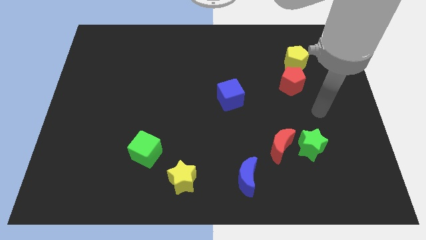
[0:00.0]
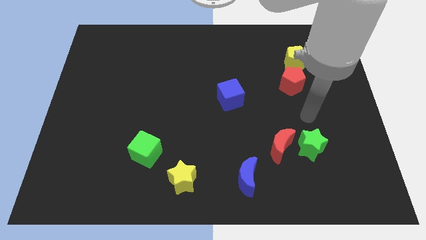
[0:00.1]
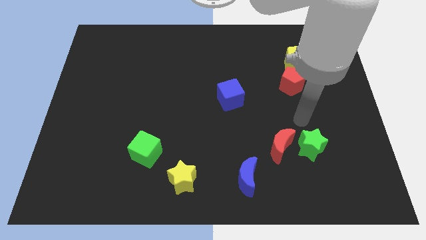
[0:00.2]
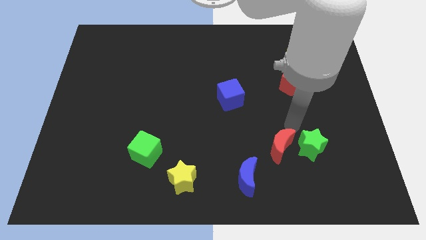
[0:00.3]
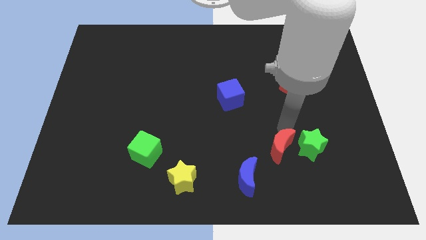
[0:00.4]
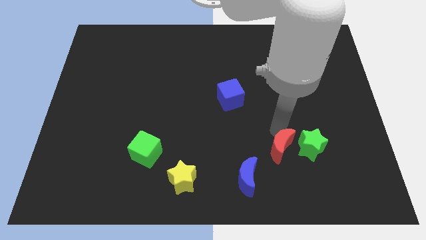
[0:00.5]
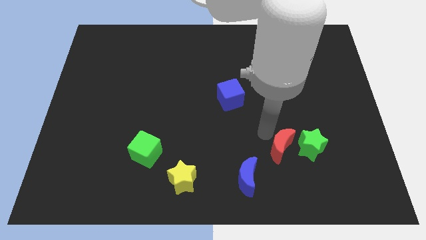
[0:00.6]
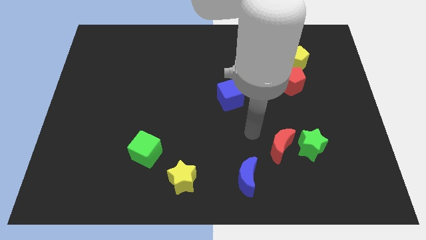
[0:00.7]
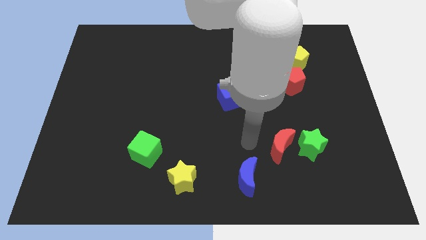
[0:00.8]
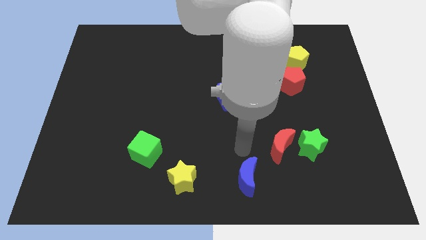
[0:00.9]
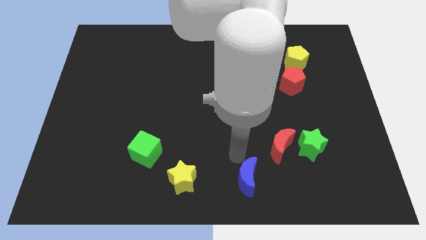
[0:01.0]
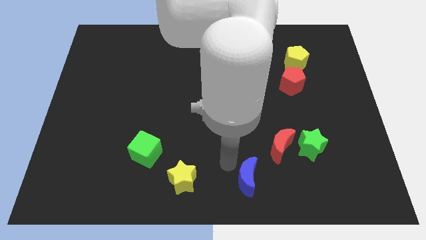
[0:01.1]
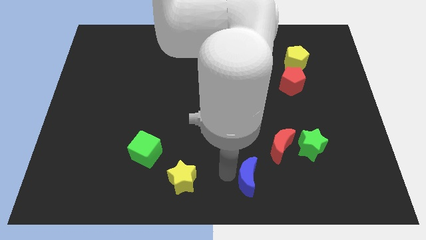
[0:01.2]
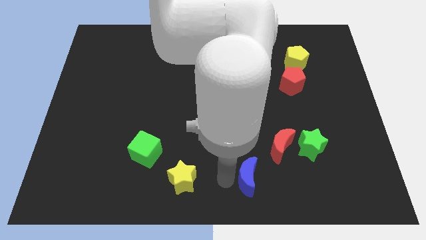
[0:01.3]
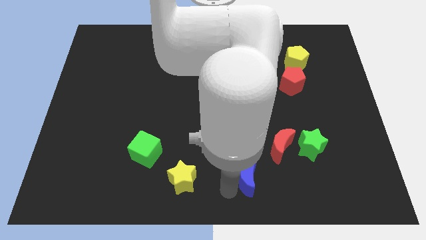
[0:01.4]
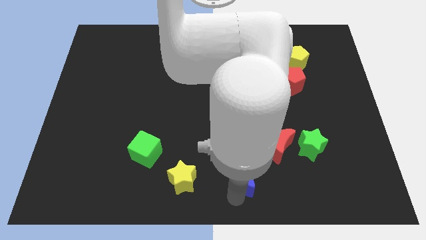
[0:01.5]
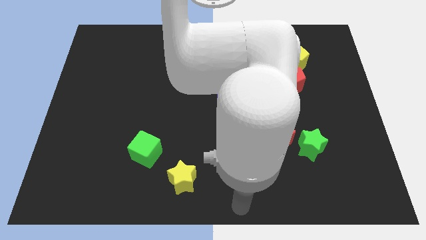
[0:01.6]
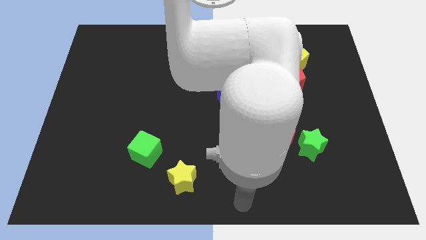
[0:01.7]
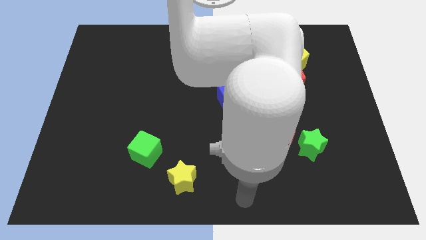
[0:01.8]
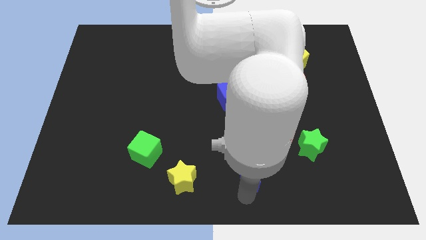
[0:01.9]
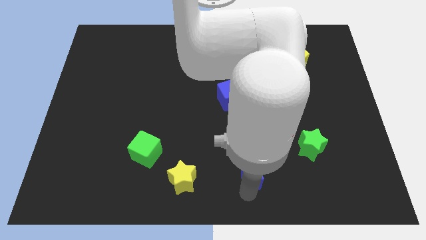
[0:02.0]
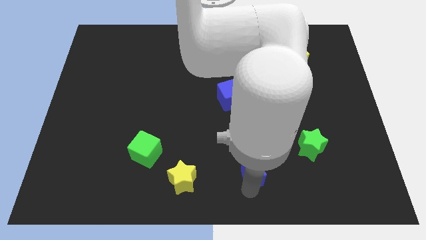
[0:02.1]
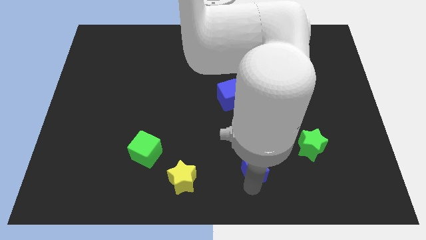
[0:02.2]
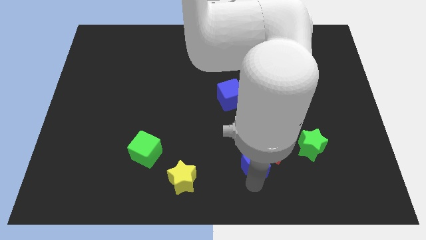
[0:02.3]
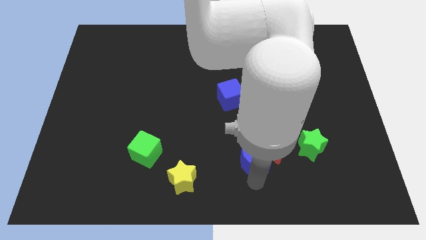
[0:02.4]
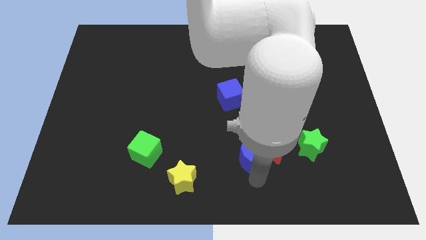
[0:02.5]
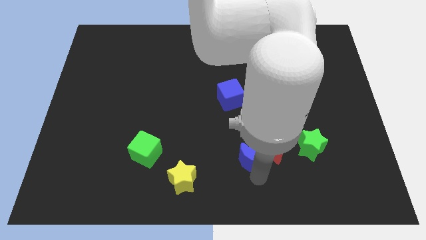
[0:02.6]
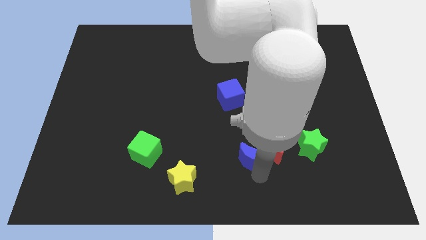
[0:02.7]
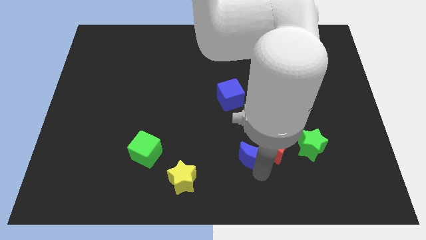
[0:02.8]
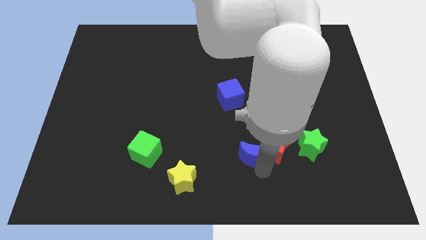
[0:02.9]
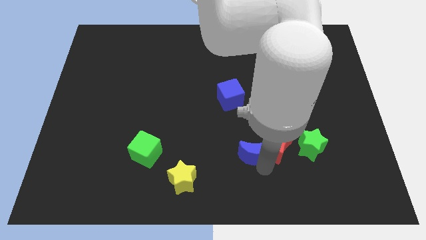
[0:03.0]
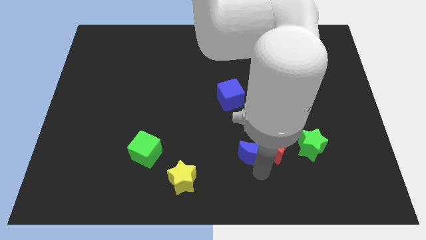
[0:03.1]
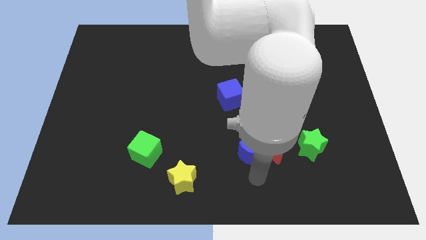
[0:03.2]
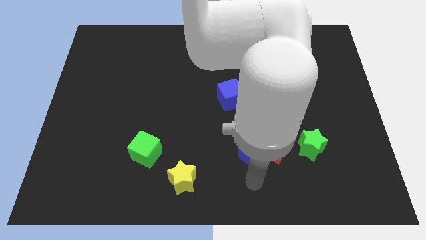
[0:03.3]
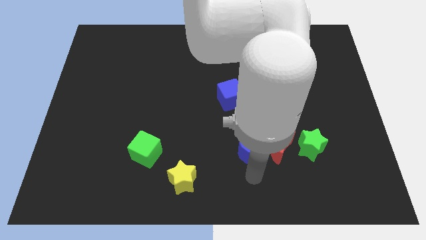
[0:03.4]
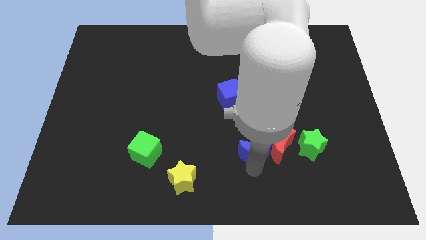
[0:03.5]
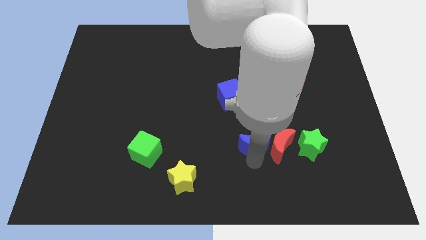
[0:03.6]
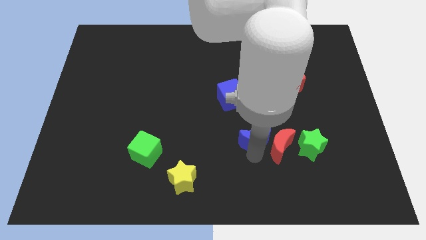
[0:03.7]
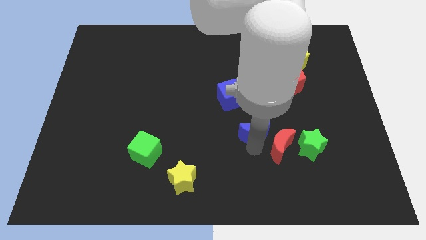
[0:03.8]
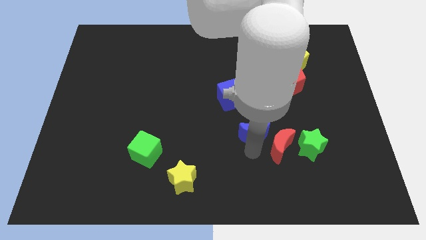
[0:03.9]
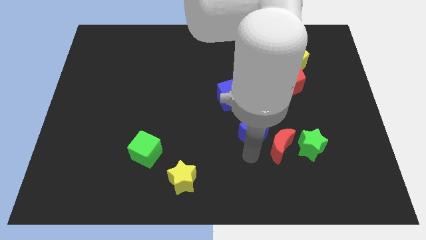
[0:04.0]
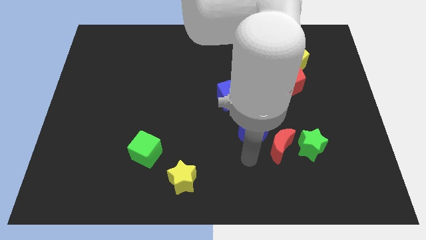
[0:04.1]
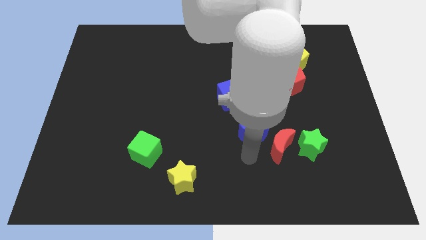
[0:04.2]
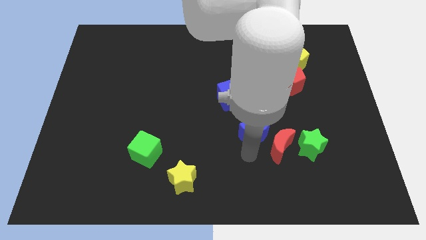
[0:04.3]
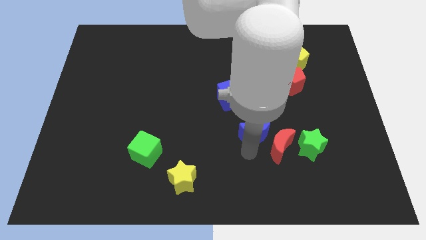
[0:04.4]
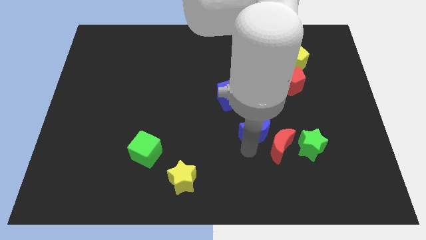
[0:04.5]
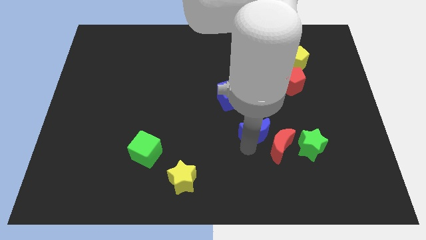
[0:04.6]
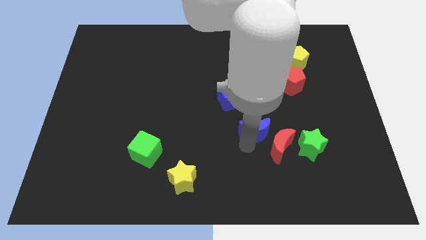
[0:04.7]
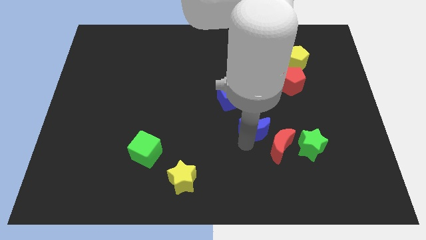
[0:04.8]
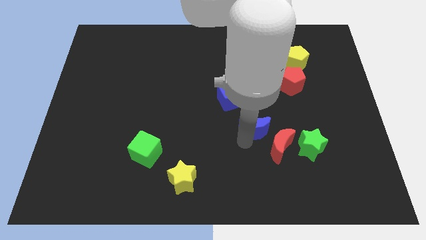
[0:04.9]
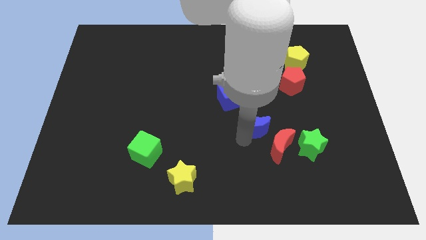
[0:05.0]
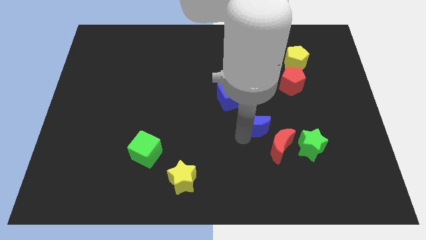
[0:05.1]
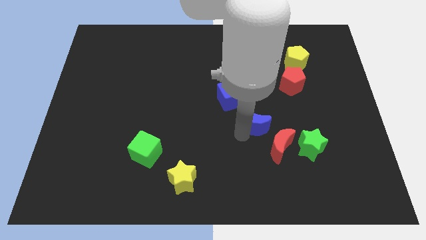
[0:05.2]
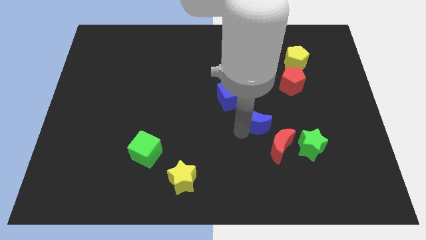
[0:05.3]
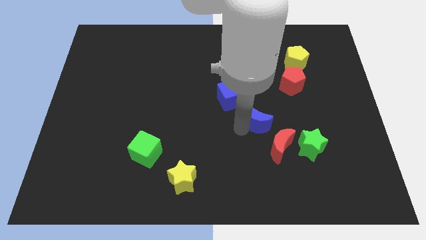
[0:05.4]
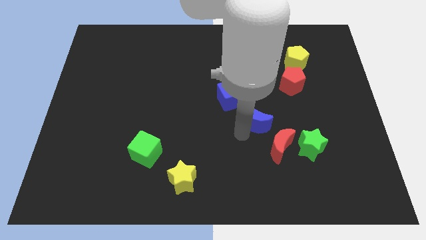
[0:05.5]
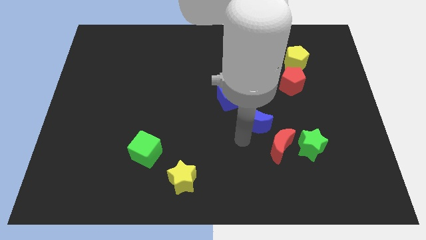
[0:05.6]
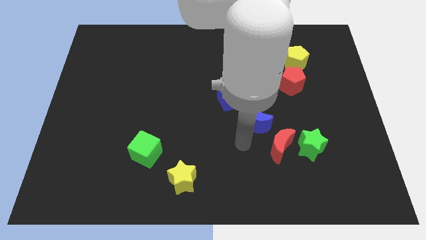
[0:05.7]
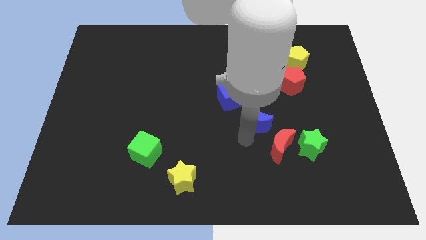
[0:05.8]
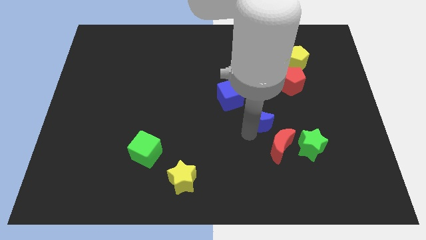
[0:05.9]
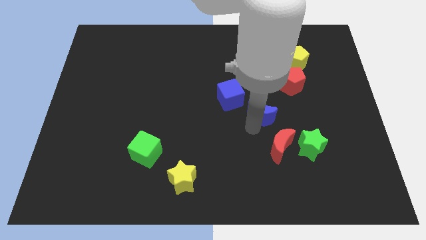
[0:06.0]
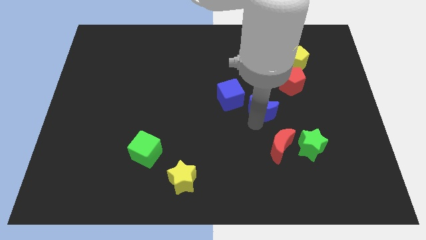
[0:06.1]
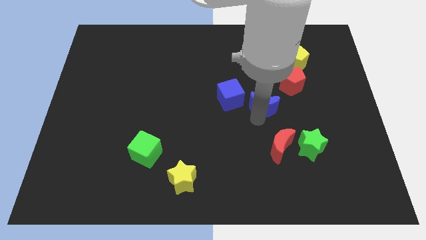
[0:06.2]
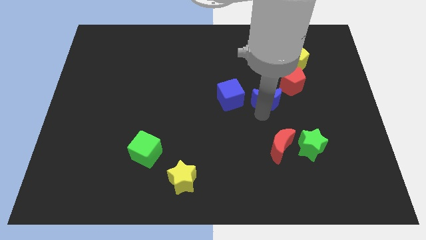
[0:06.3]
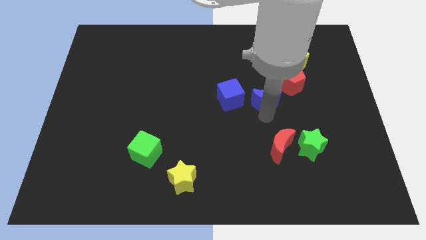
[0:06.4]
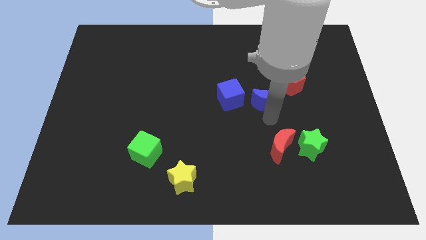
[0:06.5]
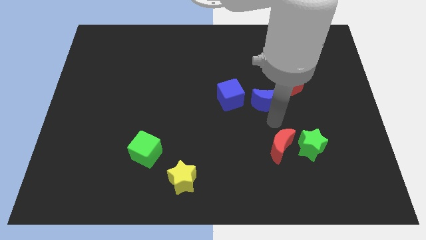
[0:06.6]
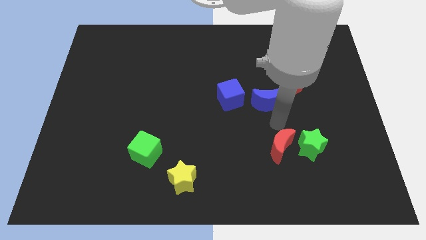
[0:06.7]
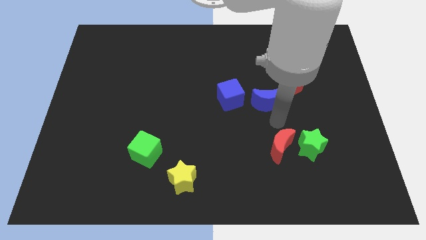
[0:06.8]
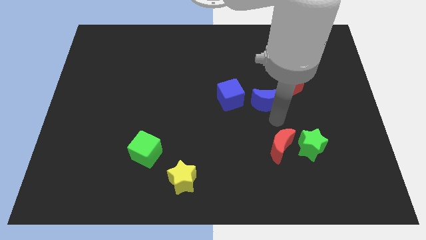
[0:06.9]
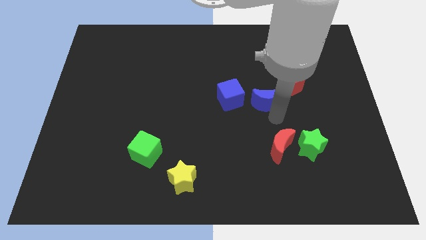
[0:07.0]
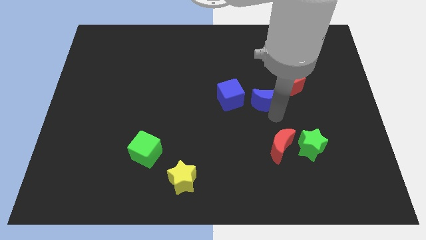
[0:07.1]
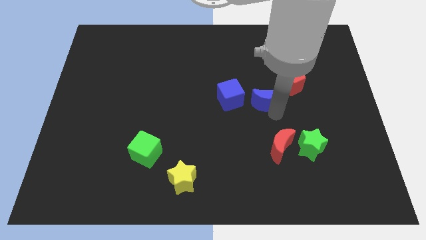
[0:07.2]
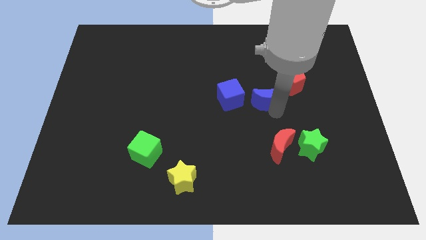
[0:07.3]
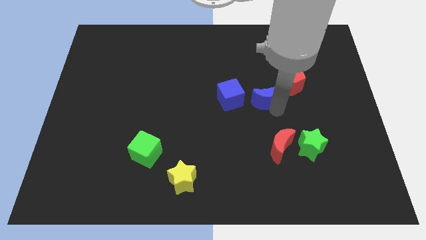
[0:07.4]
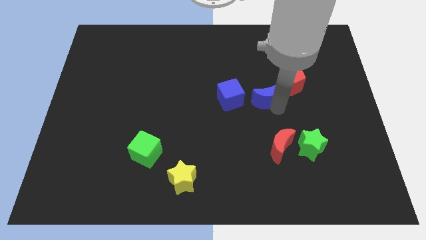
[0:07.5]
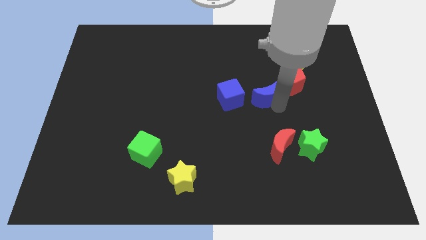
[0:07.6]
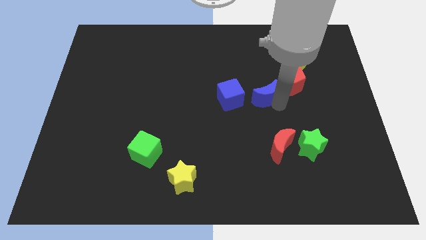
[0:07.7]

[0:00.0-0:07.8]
push the blue moon up

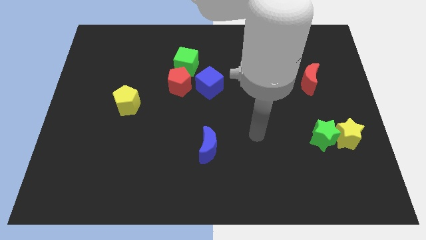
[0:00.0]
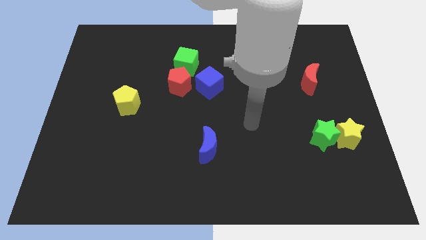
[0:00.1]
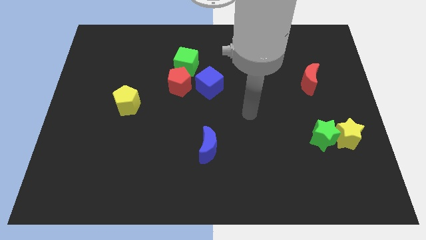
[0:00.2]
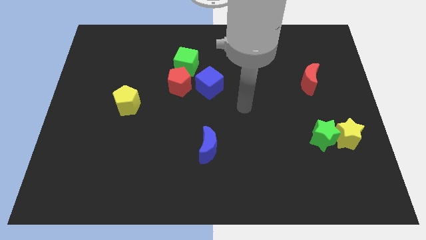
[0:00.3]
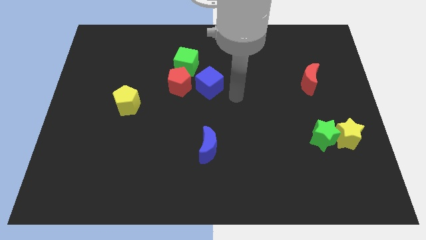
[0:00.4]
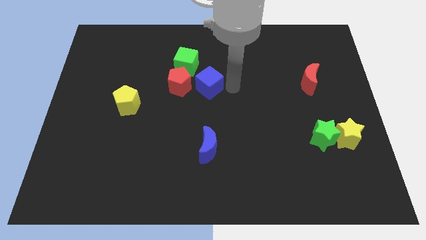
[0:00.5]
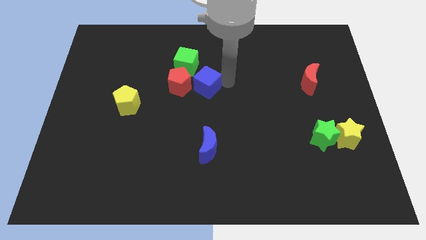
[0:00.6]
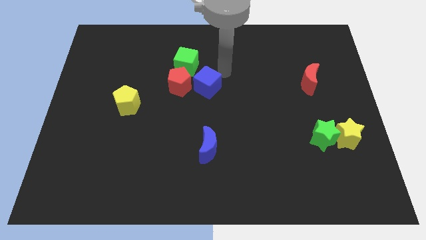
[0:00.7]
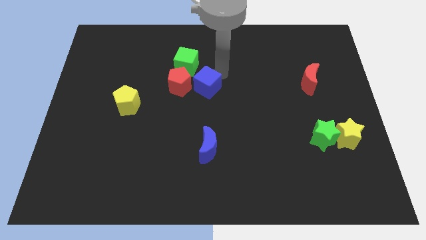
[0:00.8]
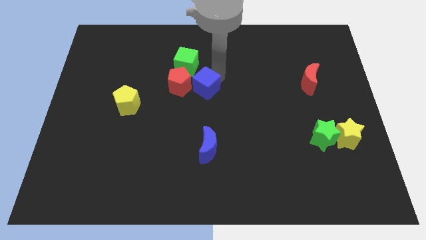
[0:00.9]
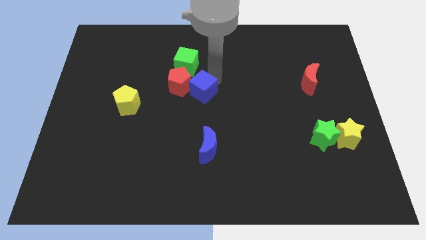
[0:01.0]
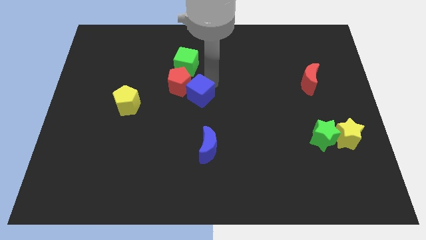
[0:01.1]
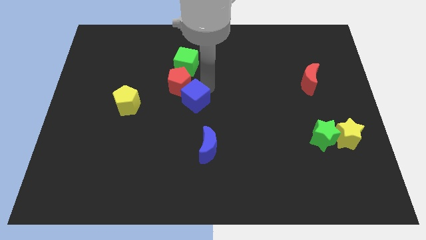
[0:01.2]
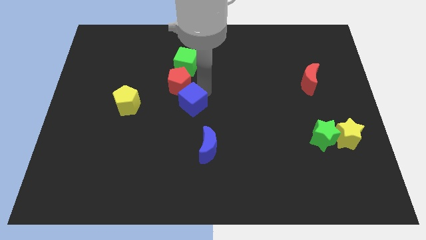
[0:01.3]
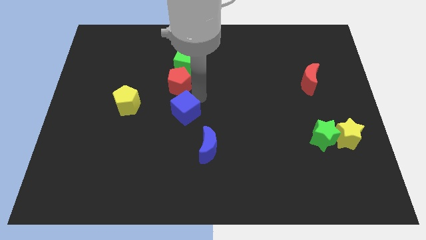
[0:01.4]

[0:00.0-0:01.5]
slide the blue cube a little diagonally down and to the left
